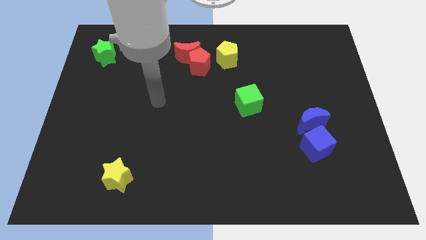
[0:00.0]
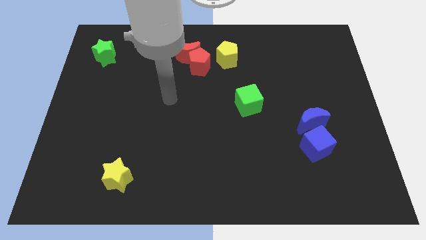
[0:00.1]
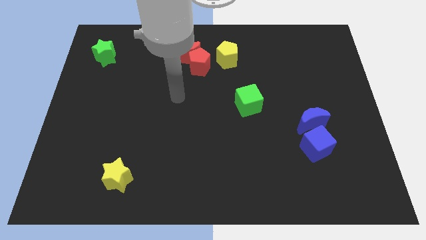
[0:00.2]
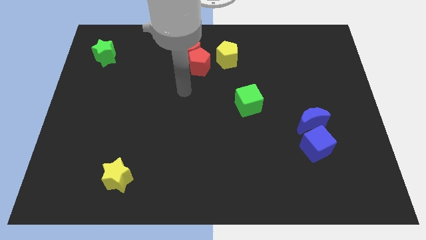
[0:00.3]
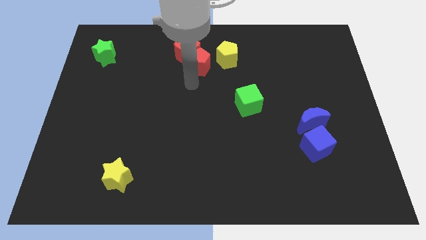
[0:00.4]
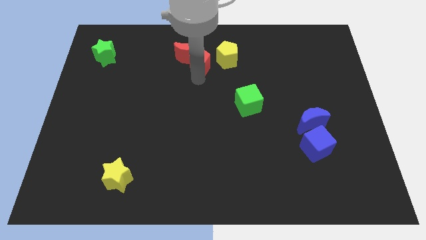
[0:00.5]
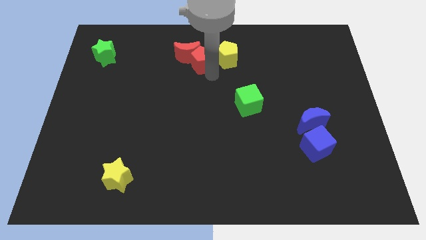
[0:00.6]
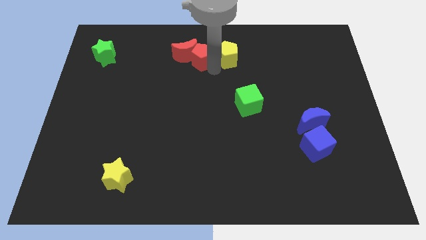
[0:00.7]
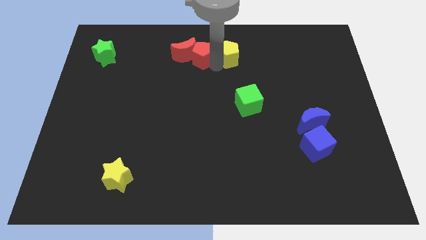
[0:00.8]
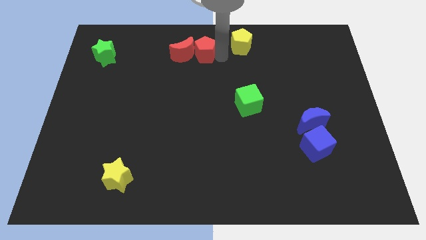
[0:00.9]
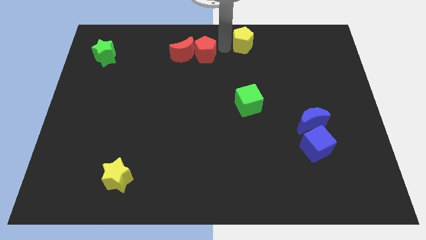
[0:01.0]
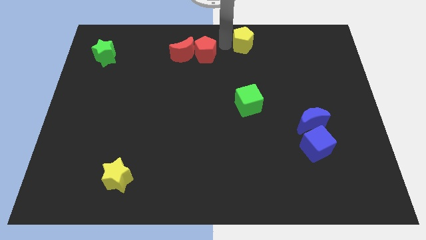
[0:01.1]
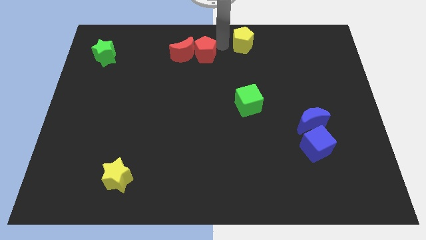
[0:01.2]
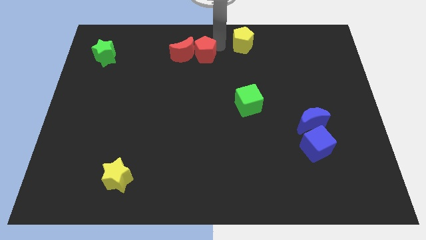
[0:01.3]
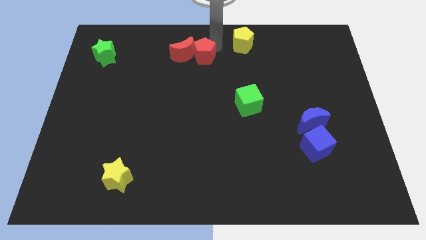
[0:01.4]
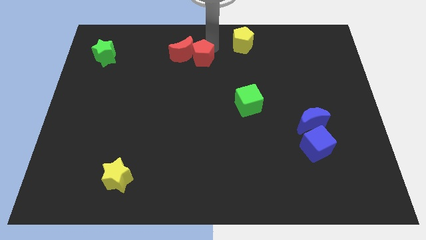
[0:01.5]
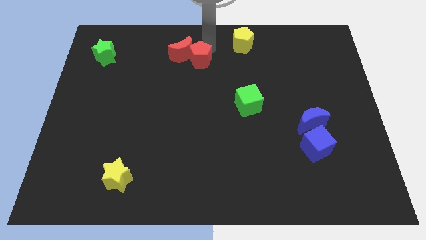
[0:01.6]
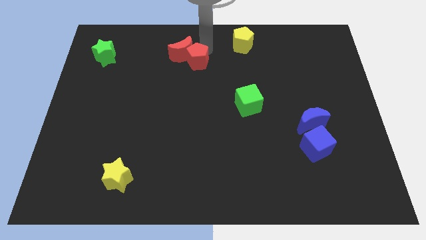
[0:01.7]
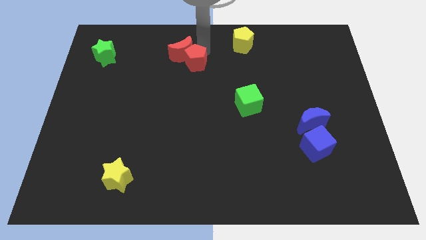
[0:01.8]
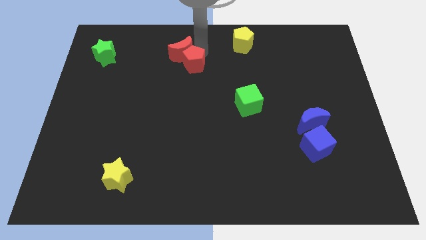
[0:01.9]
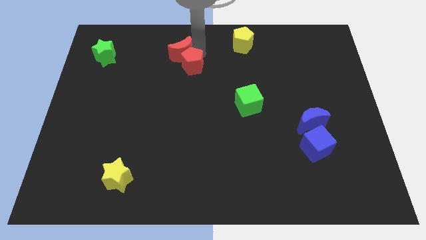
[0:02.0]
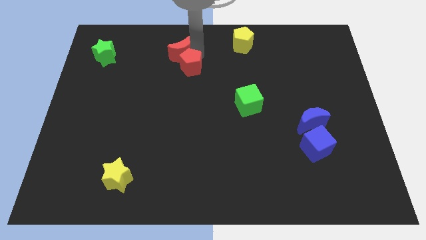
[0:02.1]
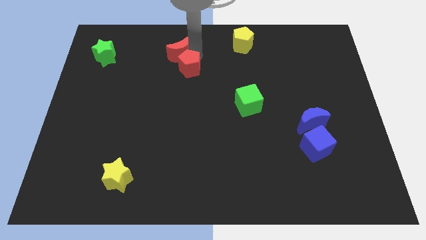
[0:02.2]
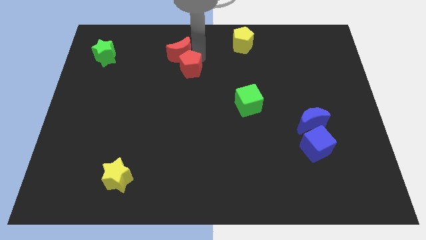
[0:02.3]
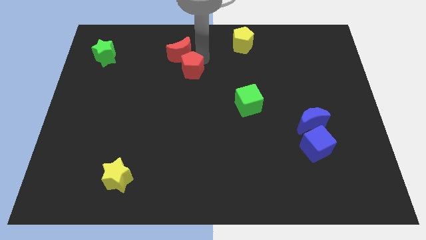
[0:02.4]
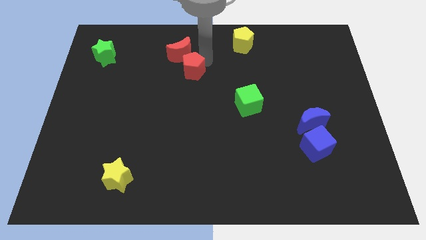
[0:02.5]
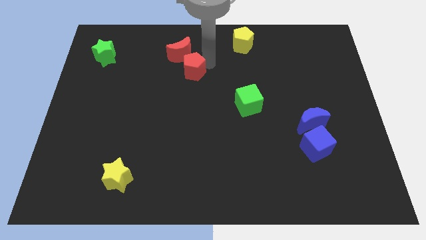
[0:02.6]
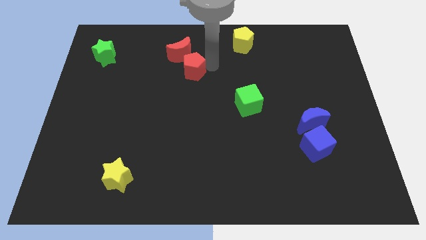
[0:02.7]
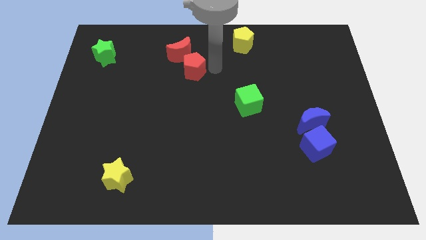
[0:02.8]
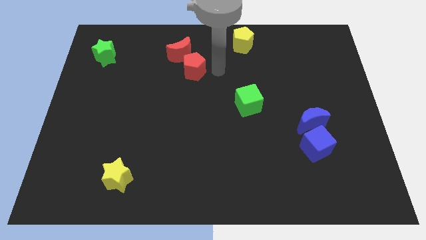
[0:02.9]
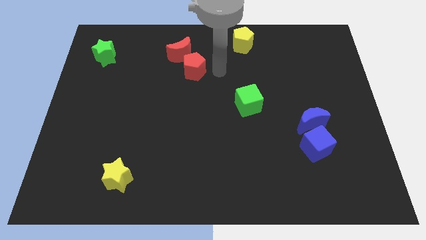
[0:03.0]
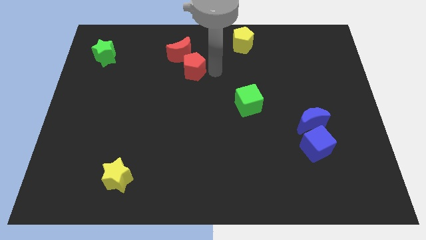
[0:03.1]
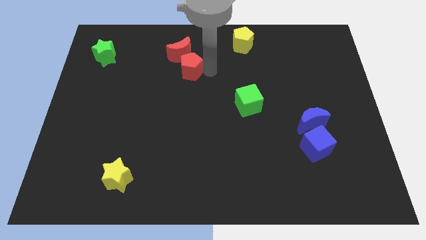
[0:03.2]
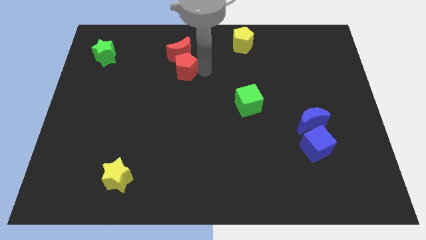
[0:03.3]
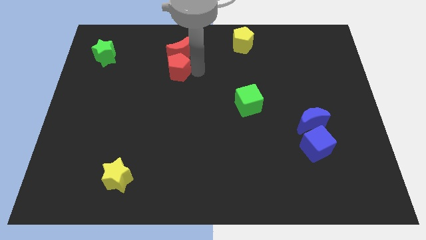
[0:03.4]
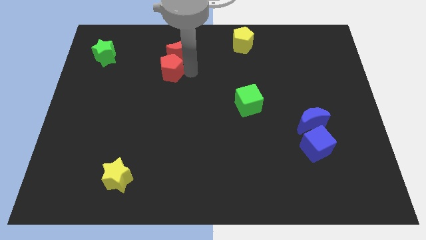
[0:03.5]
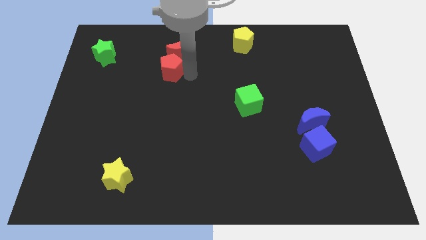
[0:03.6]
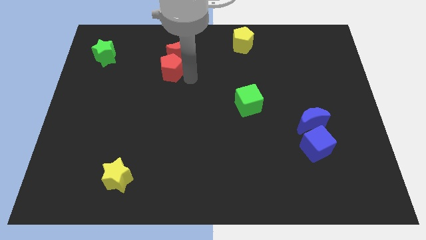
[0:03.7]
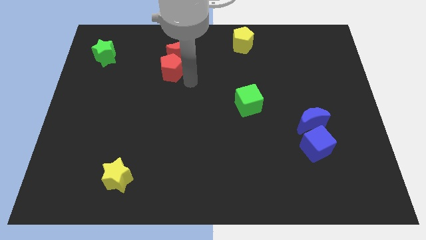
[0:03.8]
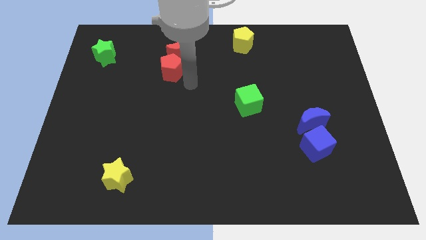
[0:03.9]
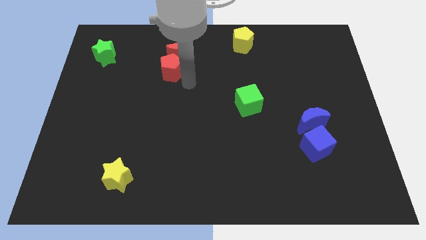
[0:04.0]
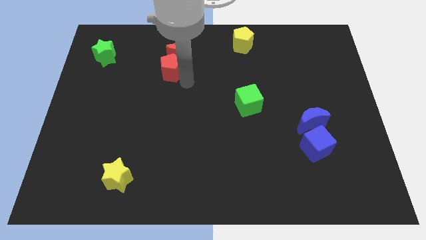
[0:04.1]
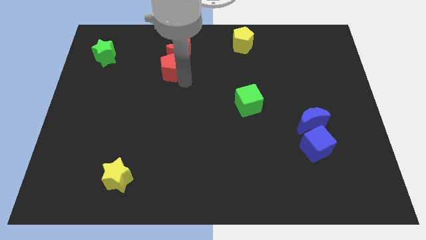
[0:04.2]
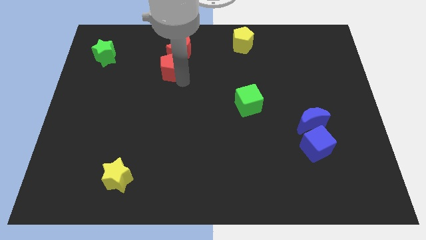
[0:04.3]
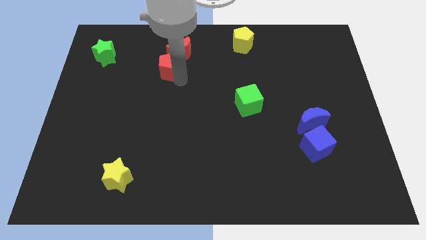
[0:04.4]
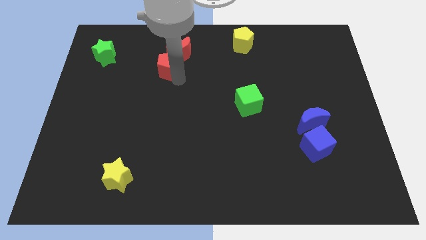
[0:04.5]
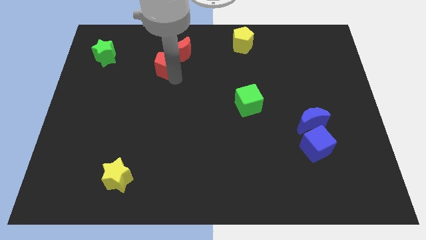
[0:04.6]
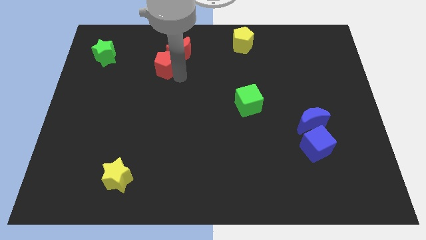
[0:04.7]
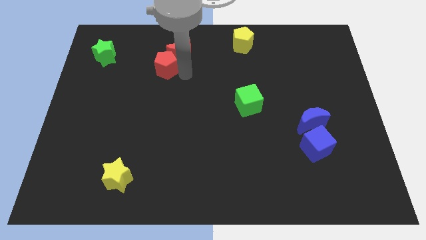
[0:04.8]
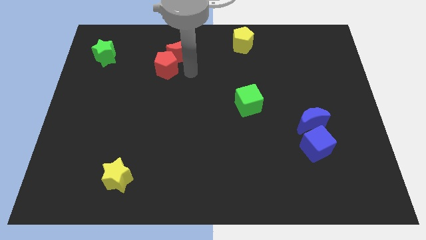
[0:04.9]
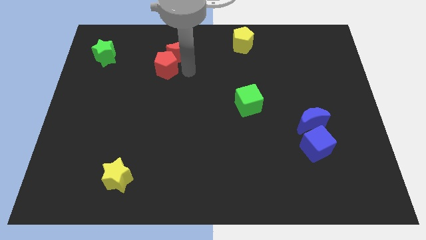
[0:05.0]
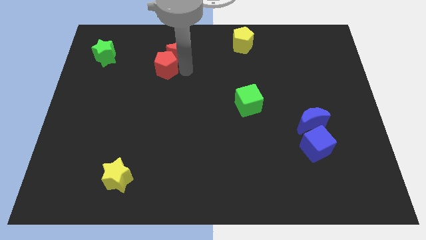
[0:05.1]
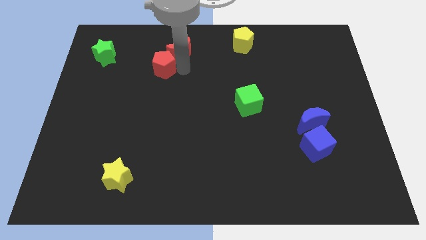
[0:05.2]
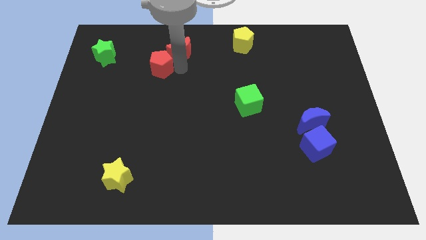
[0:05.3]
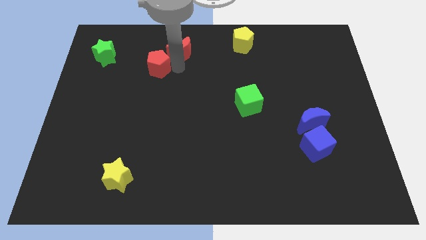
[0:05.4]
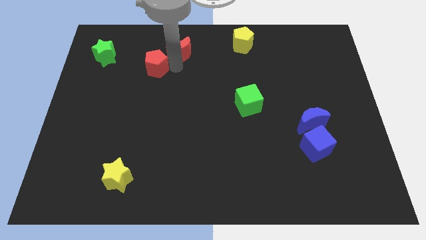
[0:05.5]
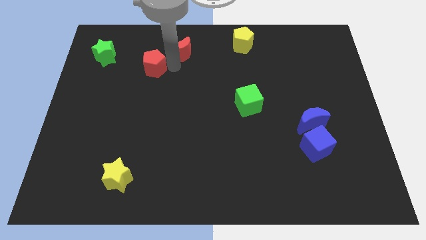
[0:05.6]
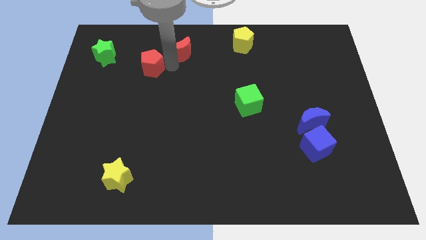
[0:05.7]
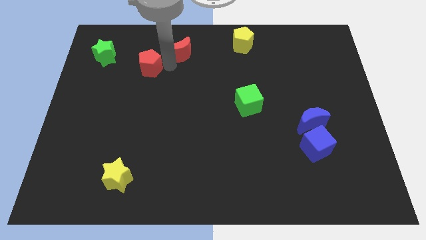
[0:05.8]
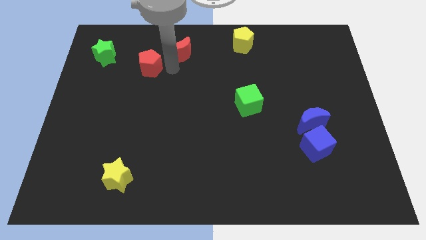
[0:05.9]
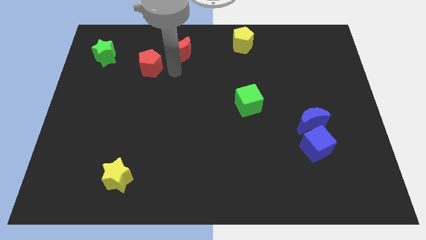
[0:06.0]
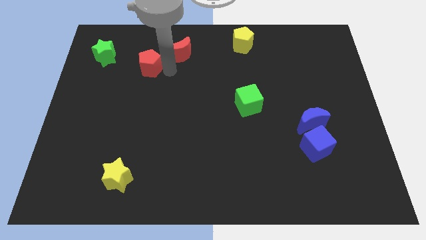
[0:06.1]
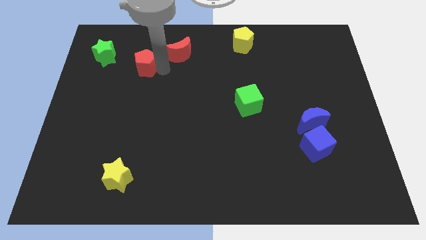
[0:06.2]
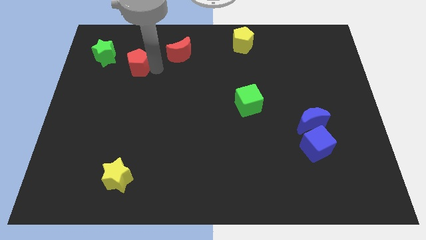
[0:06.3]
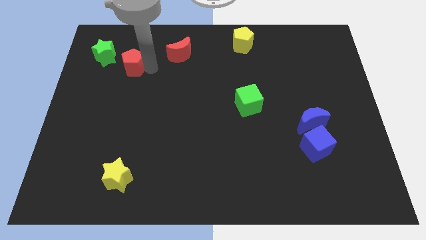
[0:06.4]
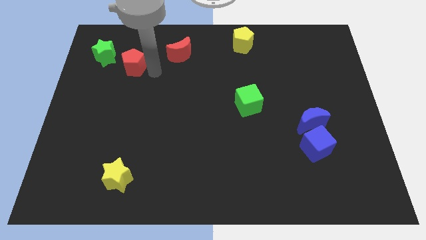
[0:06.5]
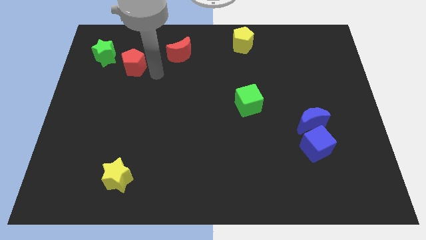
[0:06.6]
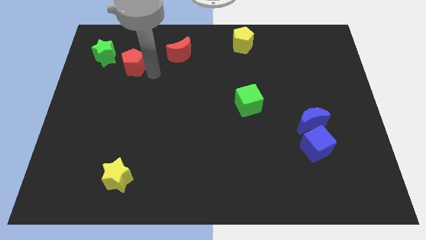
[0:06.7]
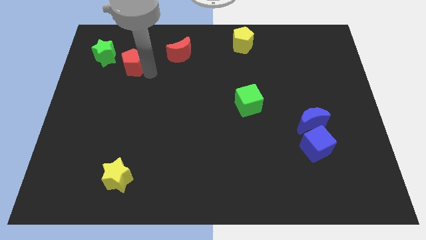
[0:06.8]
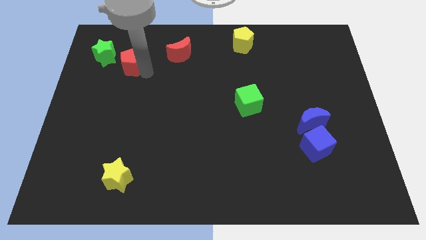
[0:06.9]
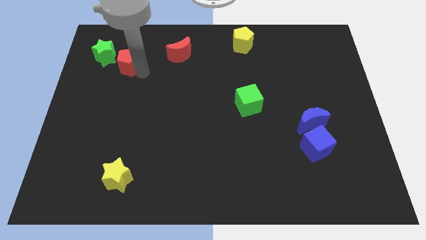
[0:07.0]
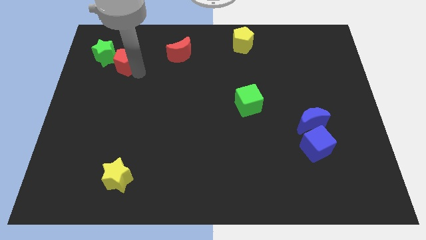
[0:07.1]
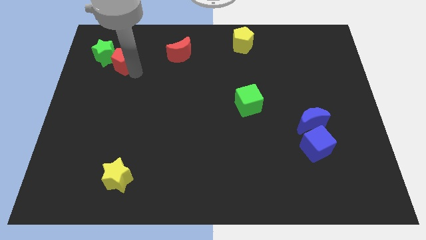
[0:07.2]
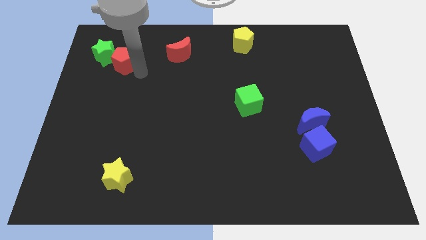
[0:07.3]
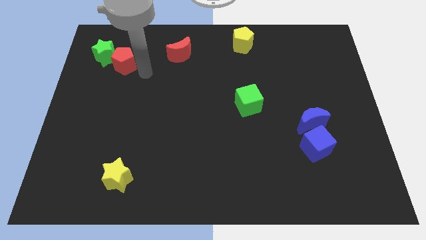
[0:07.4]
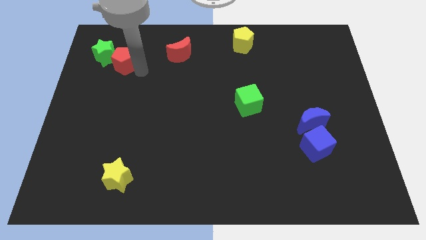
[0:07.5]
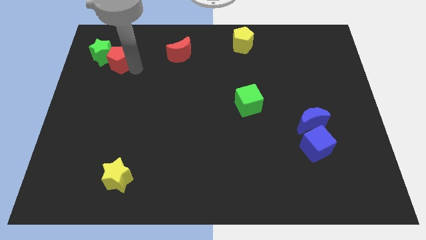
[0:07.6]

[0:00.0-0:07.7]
move the red pentagon close to the green star
